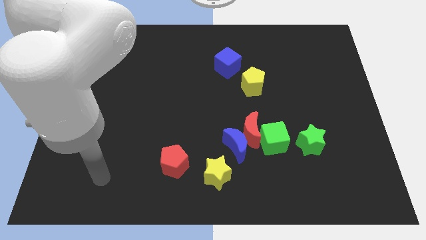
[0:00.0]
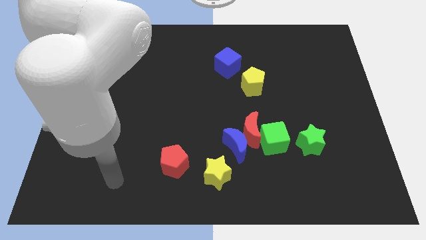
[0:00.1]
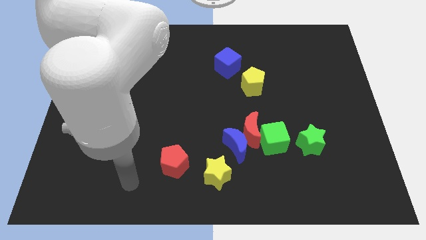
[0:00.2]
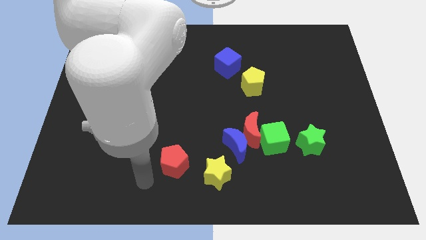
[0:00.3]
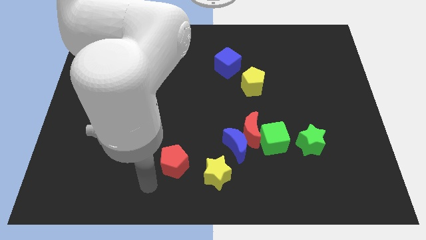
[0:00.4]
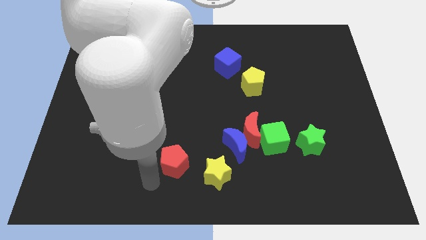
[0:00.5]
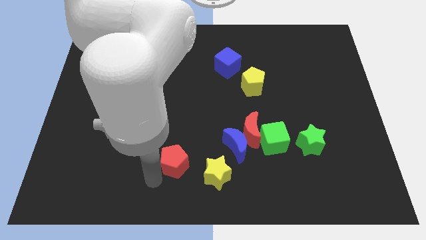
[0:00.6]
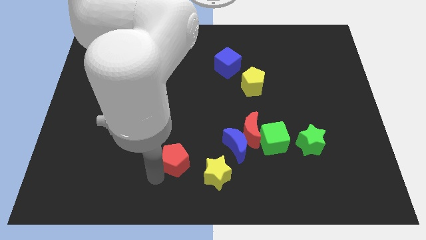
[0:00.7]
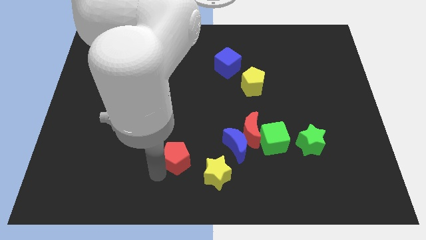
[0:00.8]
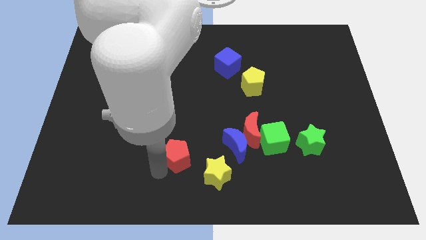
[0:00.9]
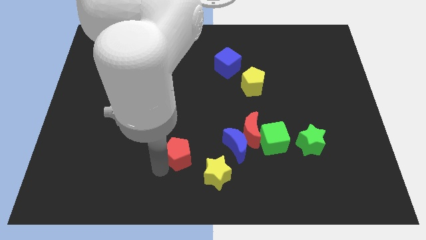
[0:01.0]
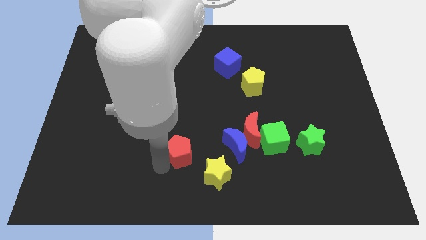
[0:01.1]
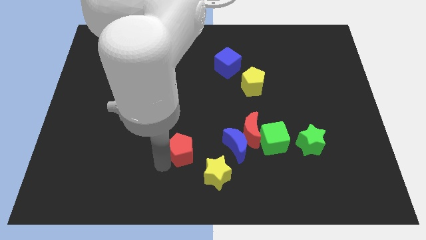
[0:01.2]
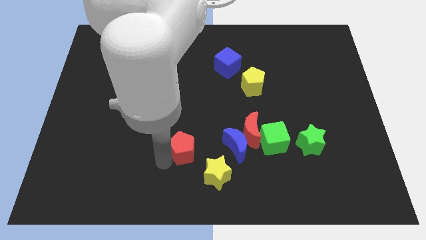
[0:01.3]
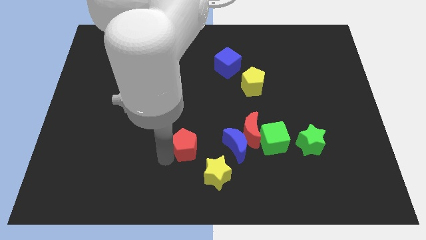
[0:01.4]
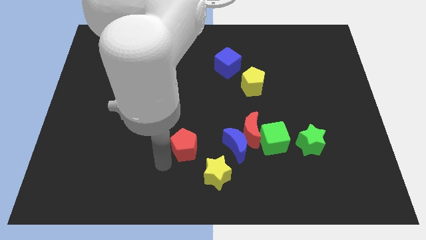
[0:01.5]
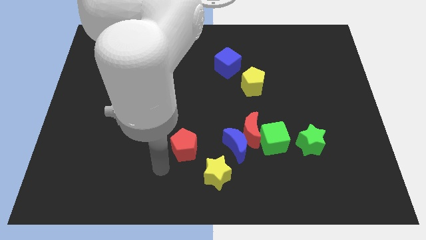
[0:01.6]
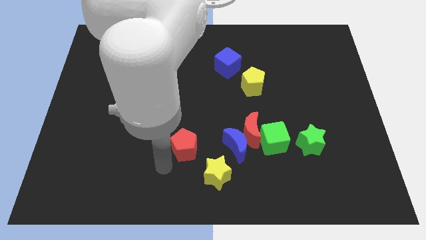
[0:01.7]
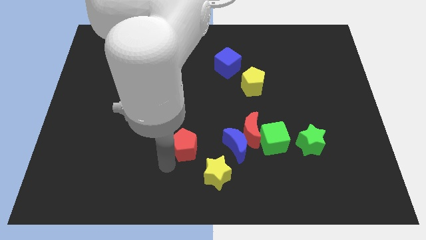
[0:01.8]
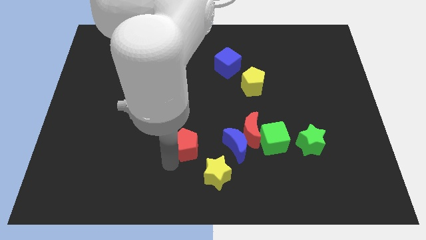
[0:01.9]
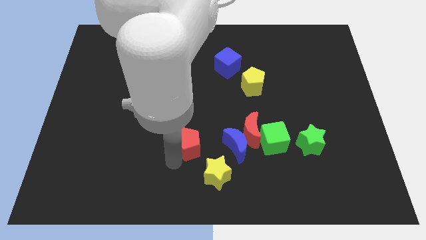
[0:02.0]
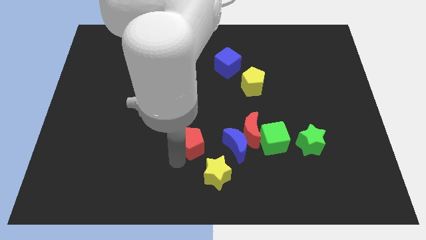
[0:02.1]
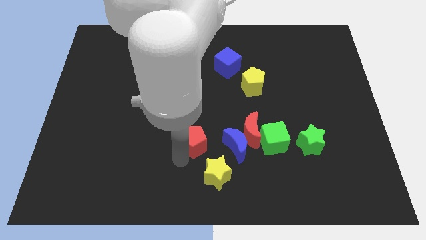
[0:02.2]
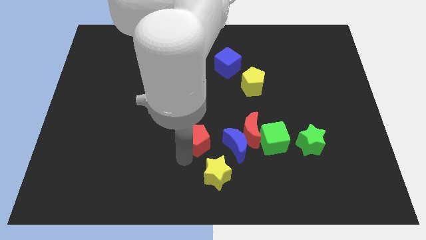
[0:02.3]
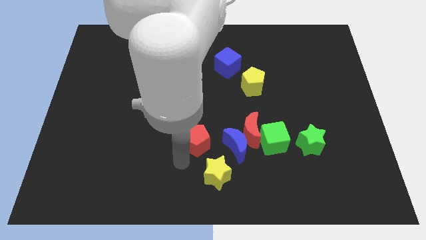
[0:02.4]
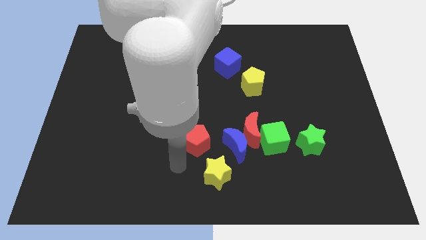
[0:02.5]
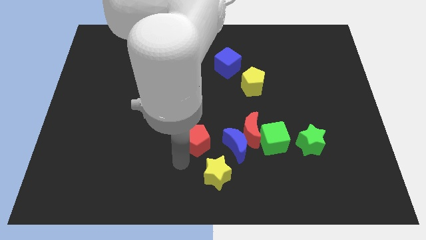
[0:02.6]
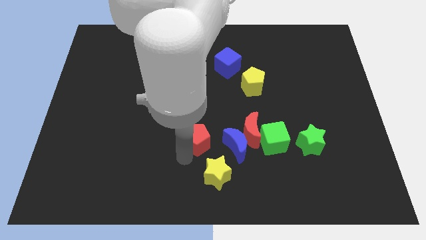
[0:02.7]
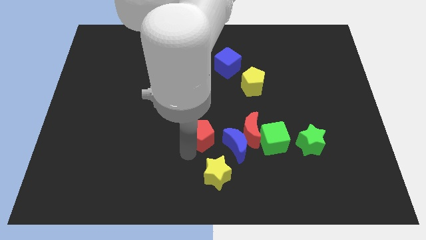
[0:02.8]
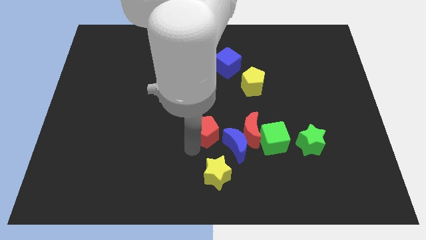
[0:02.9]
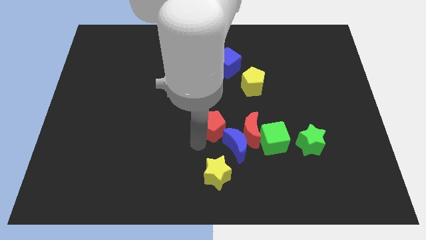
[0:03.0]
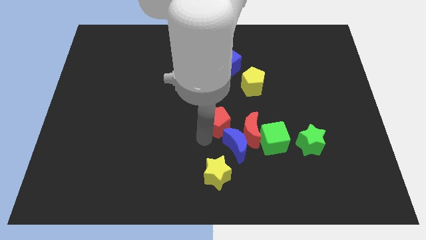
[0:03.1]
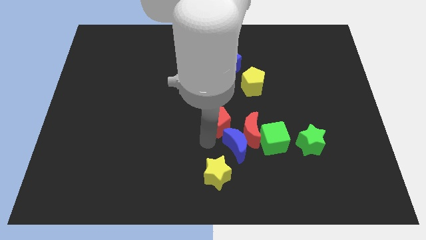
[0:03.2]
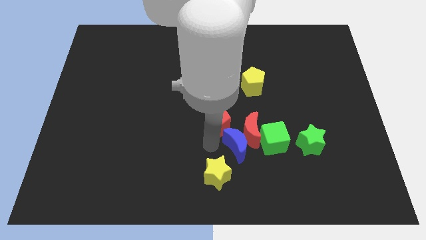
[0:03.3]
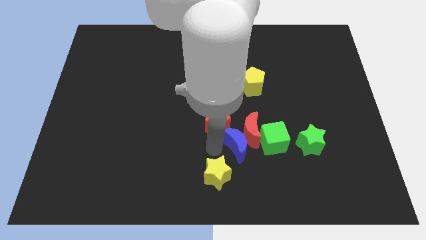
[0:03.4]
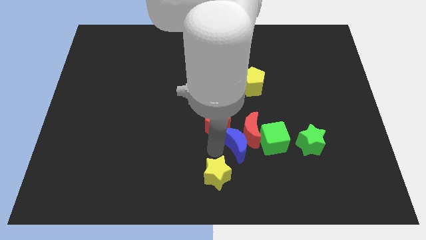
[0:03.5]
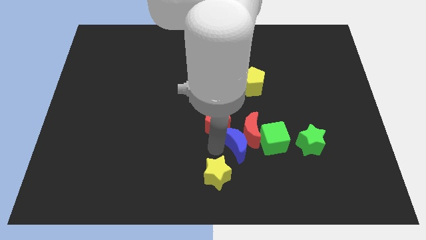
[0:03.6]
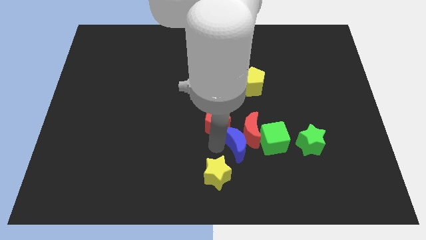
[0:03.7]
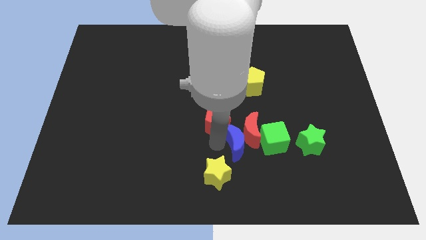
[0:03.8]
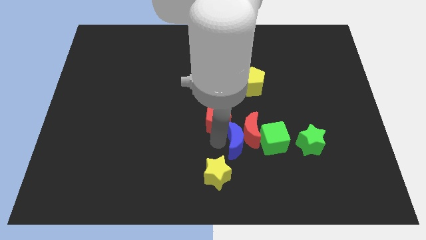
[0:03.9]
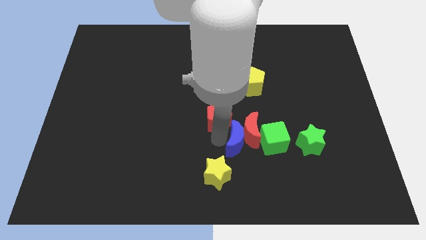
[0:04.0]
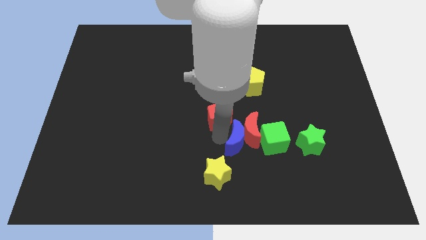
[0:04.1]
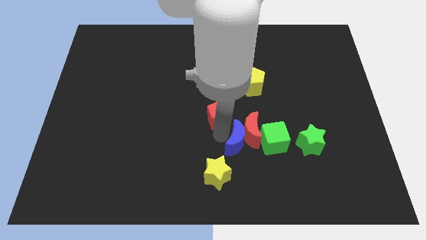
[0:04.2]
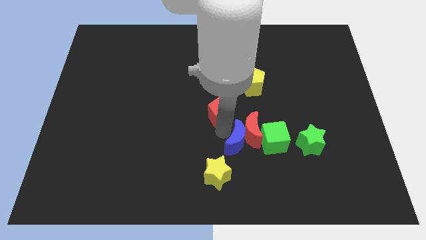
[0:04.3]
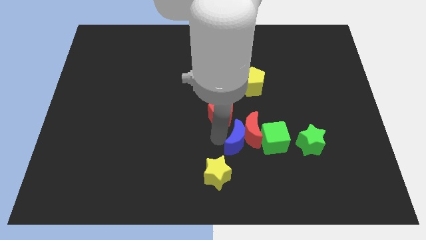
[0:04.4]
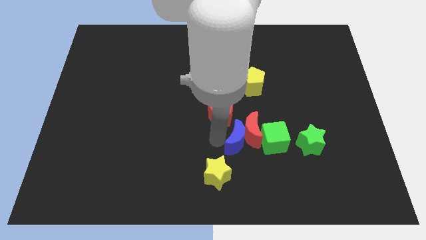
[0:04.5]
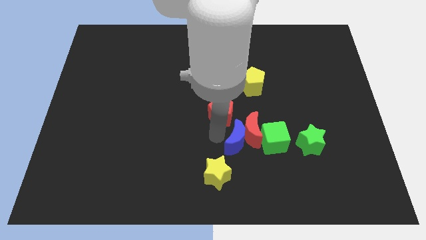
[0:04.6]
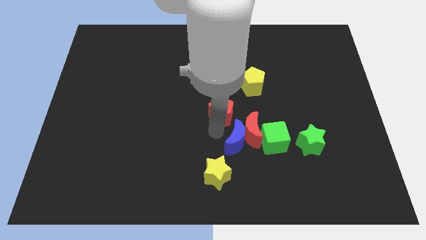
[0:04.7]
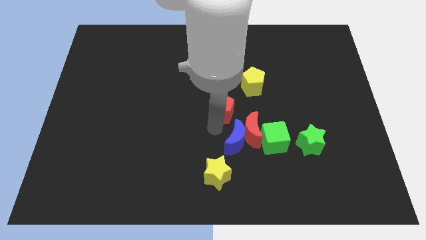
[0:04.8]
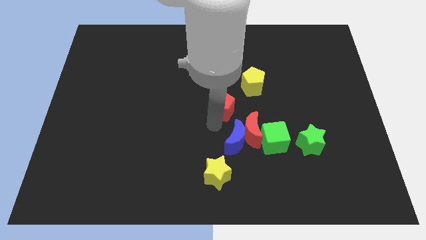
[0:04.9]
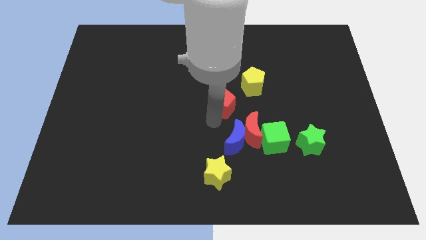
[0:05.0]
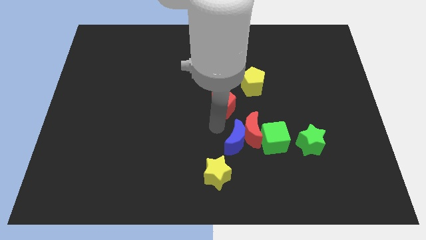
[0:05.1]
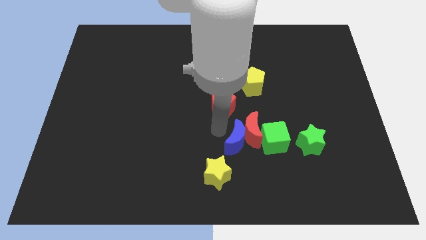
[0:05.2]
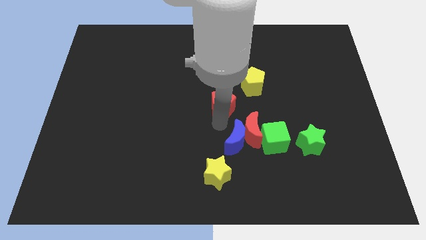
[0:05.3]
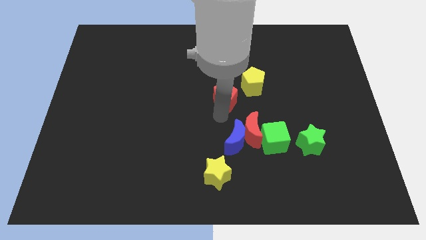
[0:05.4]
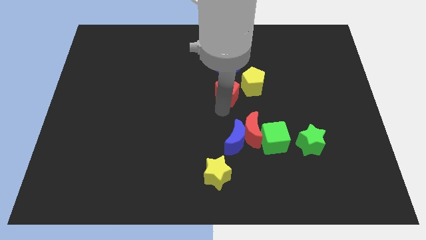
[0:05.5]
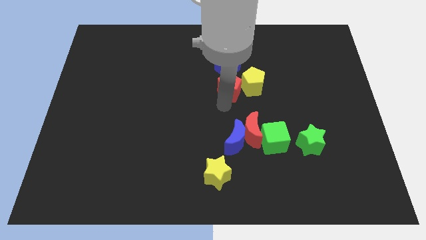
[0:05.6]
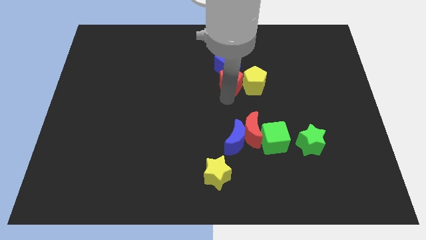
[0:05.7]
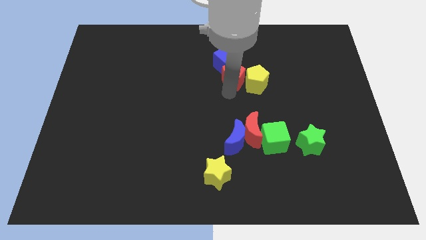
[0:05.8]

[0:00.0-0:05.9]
push the red pentagon to the blue cube

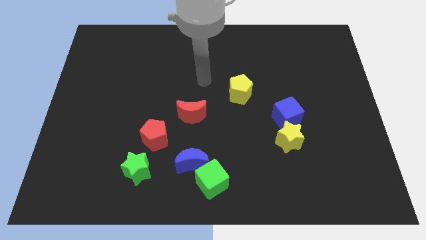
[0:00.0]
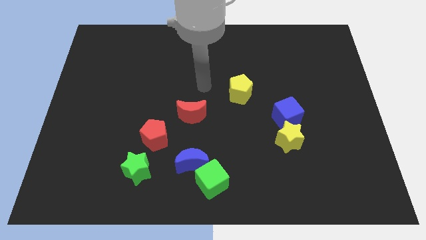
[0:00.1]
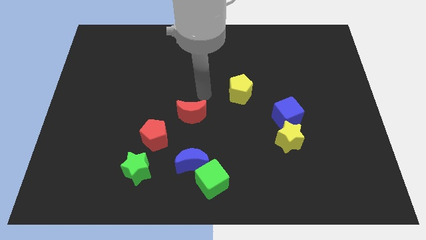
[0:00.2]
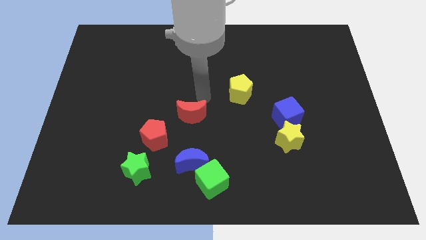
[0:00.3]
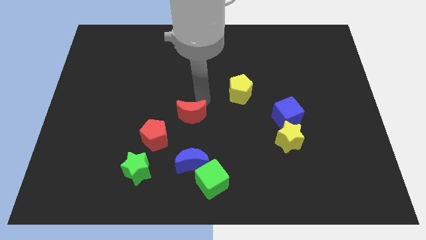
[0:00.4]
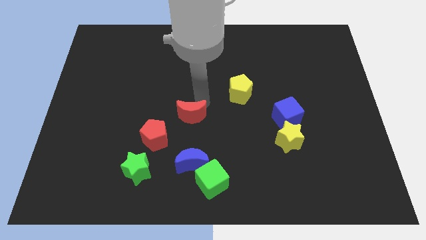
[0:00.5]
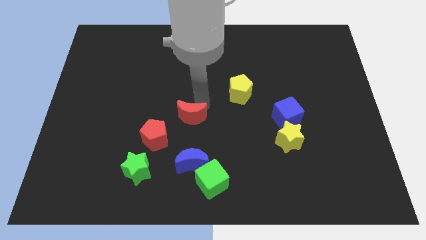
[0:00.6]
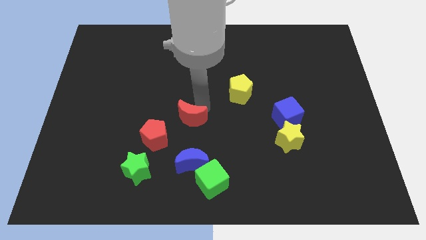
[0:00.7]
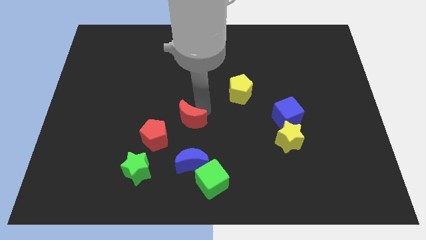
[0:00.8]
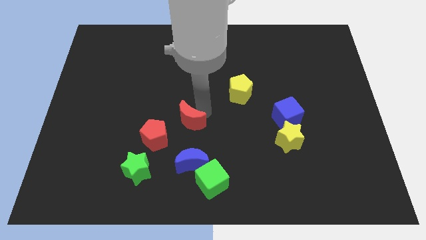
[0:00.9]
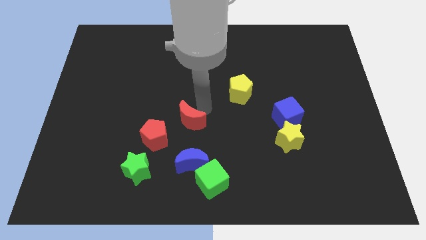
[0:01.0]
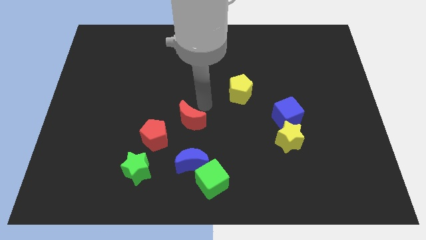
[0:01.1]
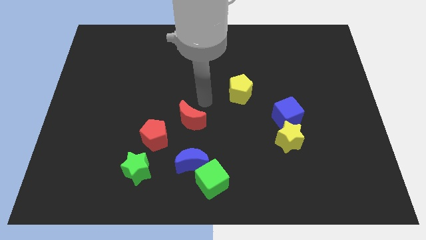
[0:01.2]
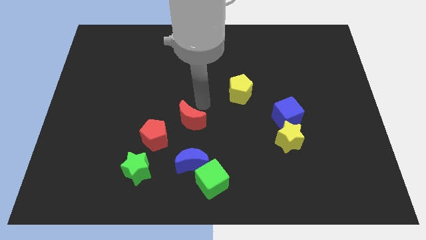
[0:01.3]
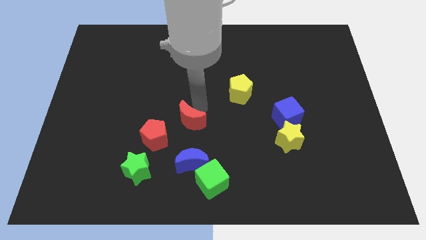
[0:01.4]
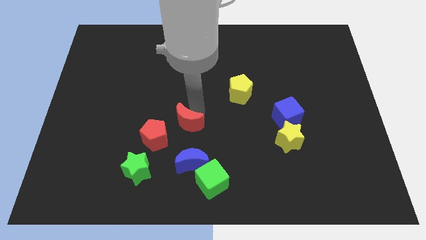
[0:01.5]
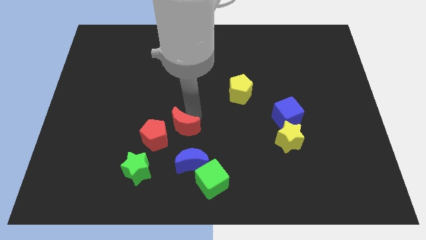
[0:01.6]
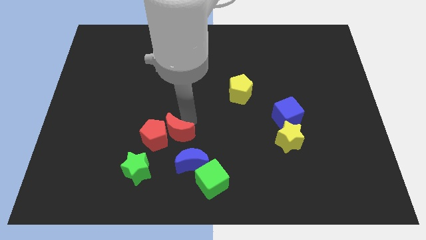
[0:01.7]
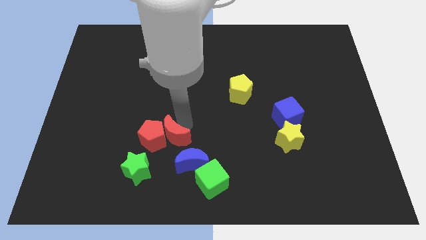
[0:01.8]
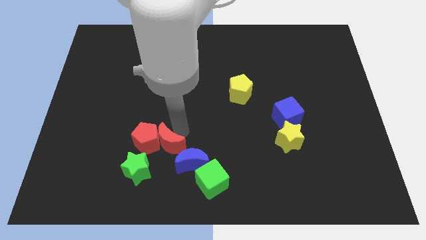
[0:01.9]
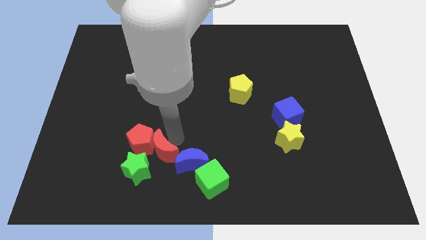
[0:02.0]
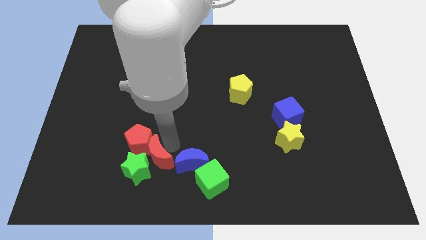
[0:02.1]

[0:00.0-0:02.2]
move the red moon close to the green star
